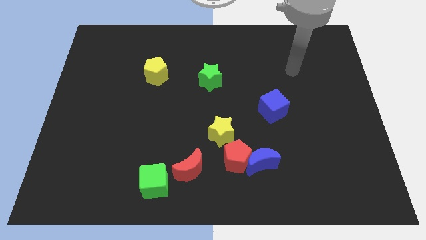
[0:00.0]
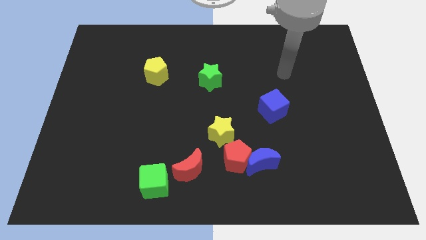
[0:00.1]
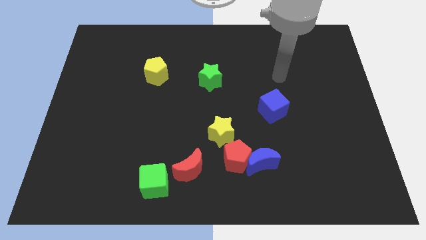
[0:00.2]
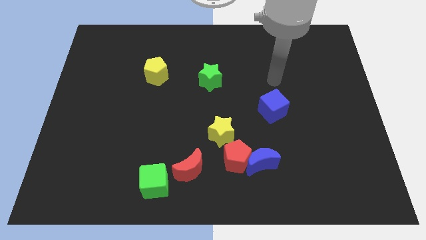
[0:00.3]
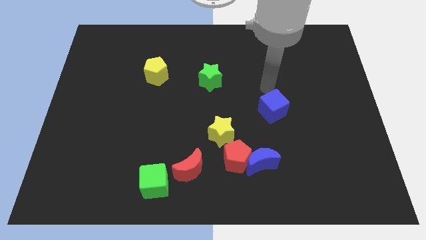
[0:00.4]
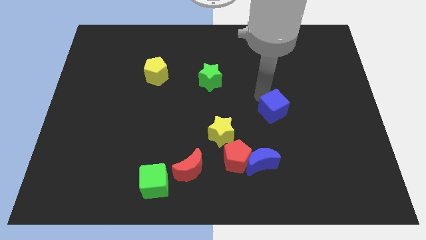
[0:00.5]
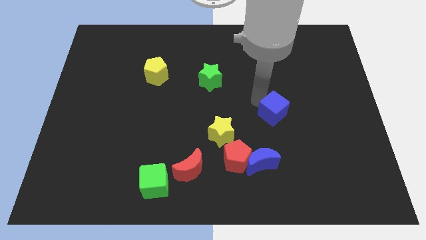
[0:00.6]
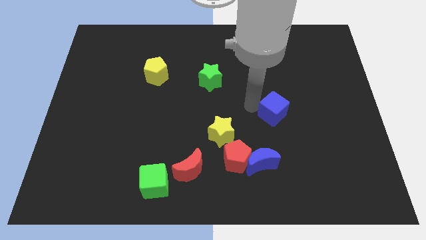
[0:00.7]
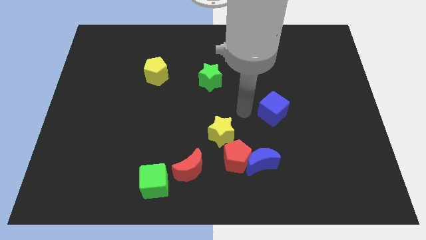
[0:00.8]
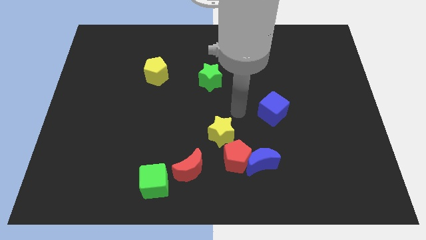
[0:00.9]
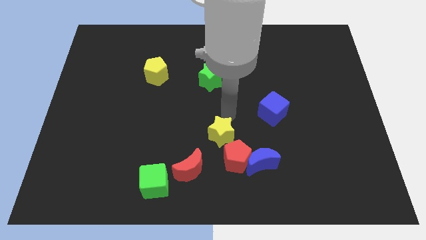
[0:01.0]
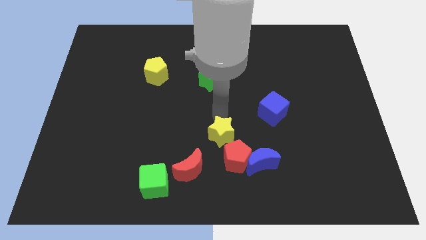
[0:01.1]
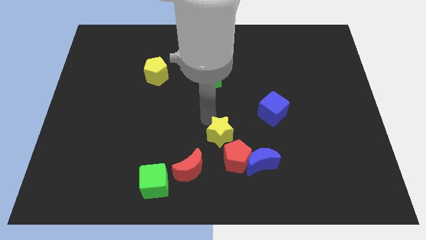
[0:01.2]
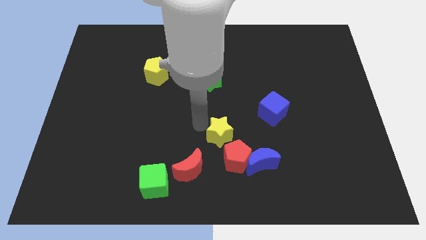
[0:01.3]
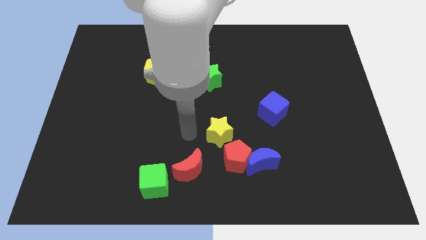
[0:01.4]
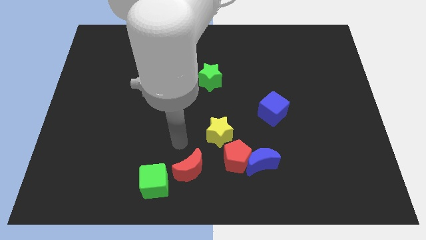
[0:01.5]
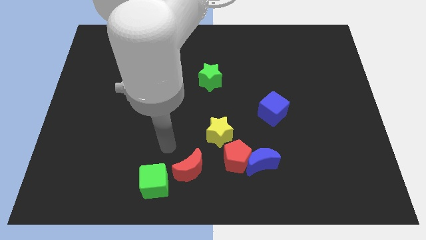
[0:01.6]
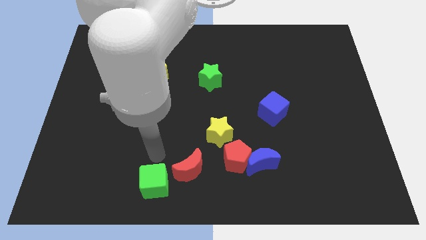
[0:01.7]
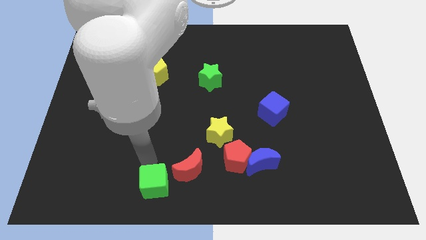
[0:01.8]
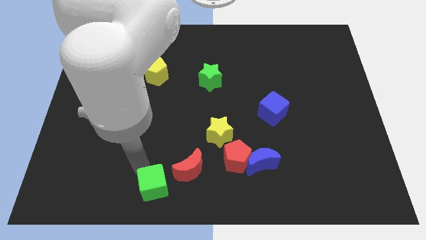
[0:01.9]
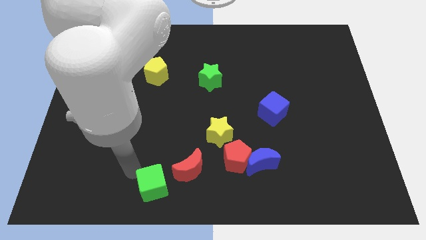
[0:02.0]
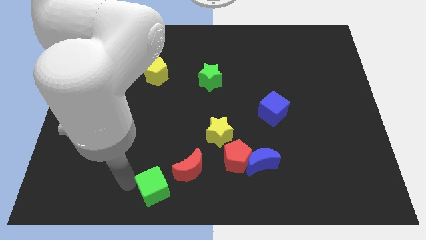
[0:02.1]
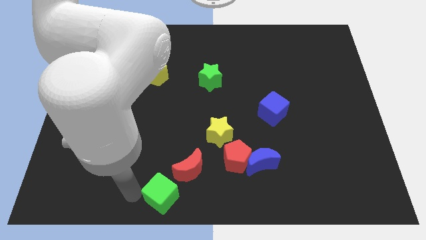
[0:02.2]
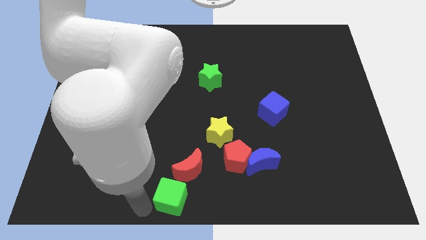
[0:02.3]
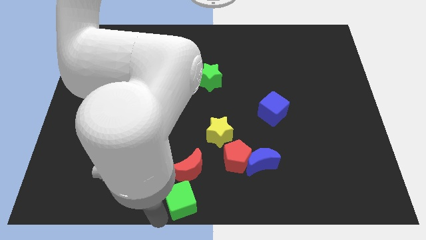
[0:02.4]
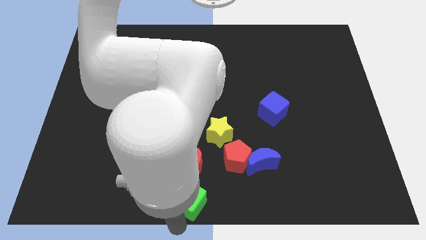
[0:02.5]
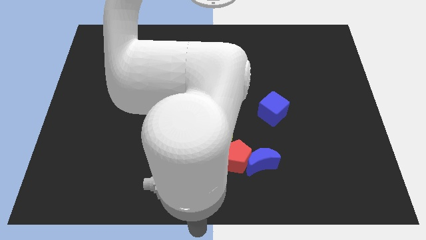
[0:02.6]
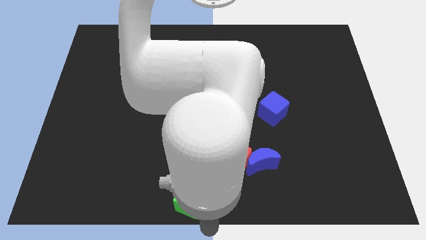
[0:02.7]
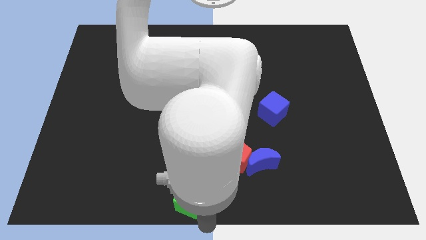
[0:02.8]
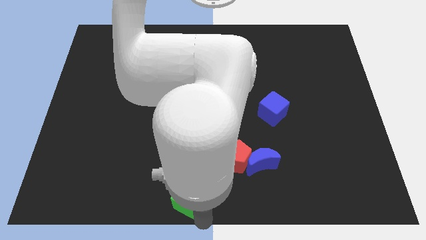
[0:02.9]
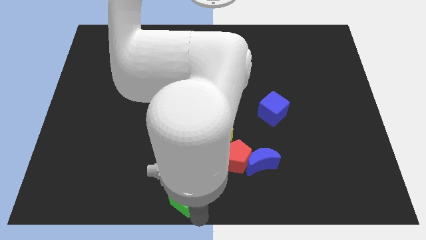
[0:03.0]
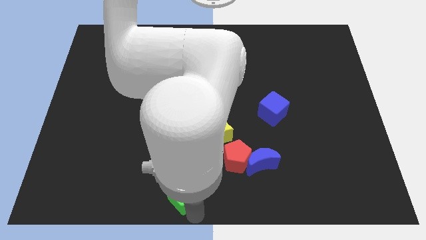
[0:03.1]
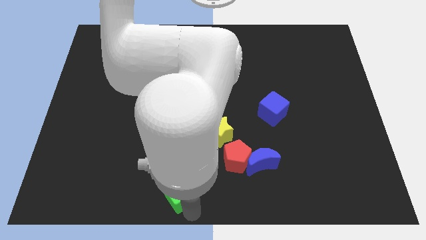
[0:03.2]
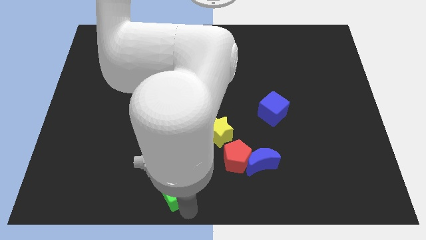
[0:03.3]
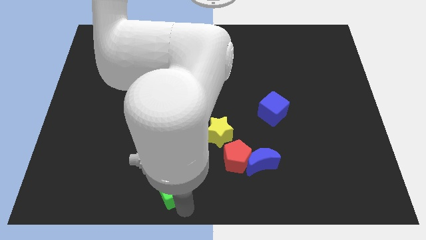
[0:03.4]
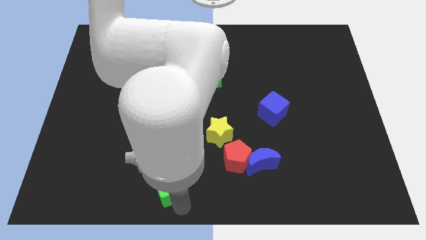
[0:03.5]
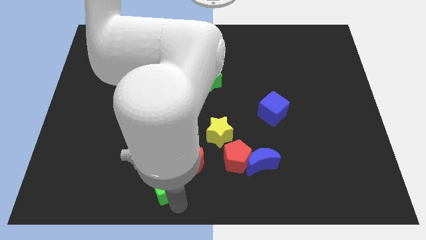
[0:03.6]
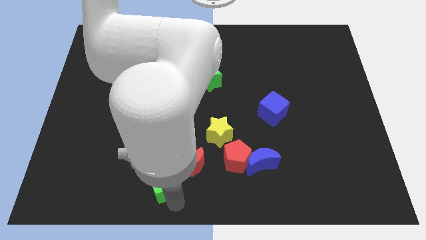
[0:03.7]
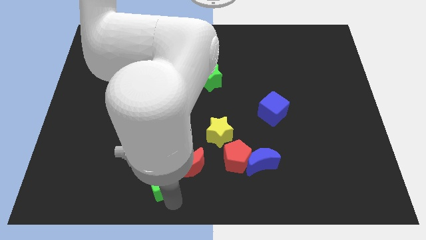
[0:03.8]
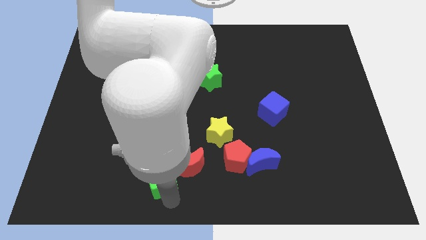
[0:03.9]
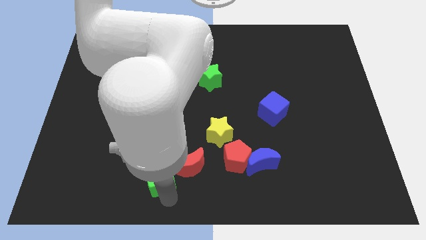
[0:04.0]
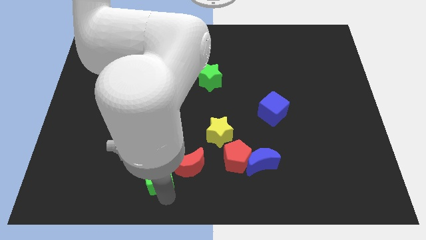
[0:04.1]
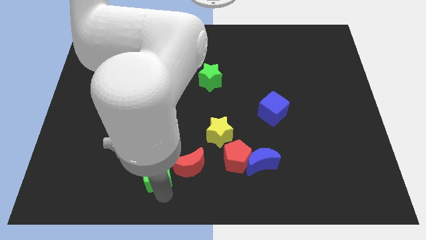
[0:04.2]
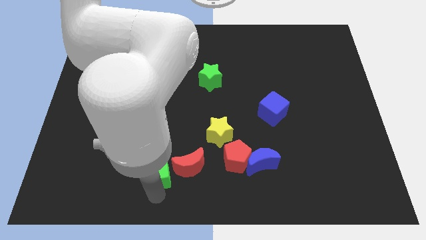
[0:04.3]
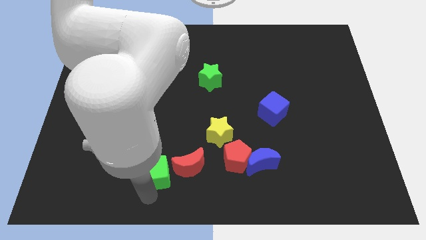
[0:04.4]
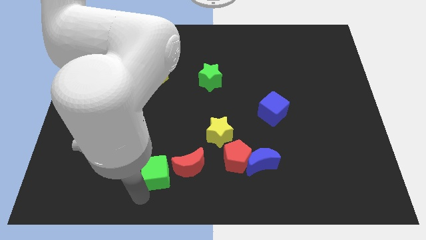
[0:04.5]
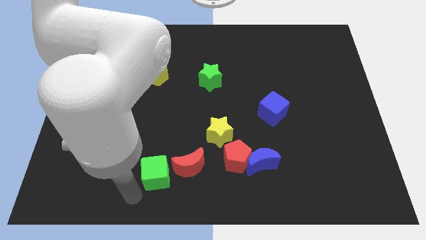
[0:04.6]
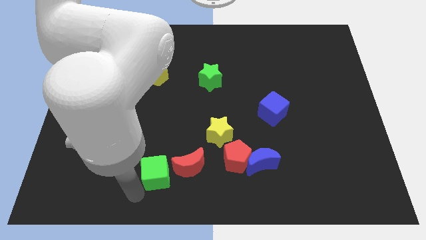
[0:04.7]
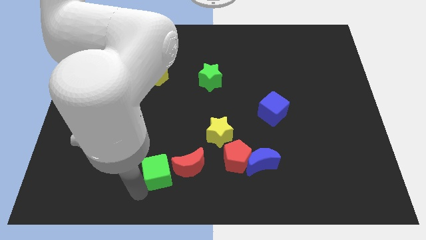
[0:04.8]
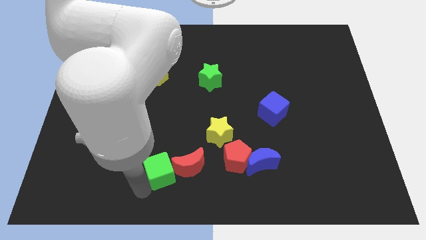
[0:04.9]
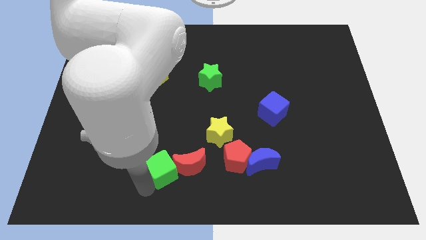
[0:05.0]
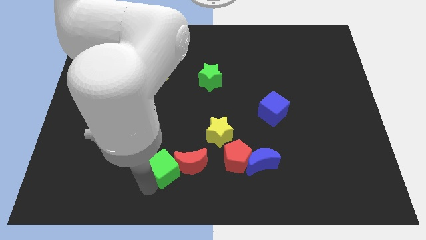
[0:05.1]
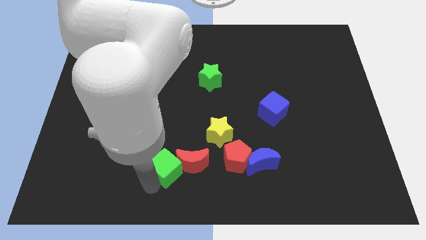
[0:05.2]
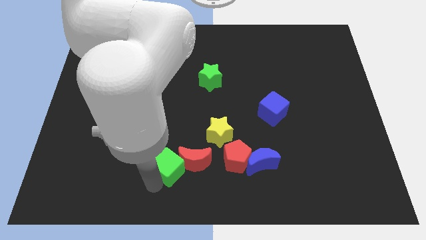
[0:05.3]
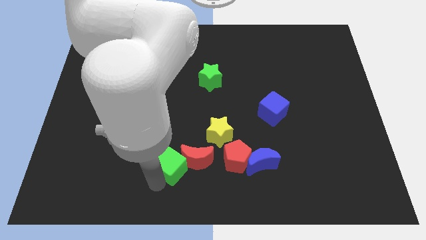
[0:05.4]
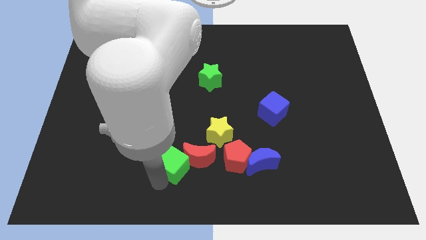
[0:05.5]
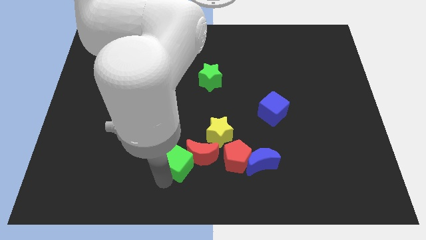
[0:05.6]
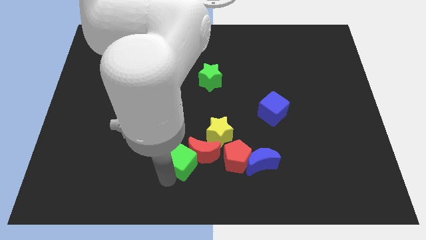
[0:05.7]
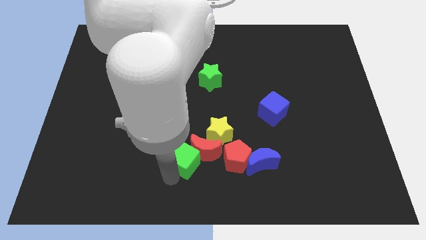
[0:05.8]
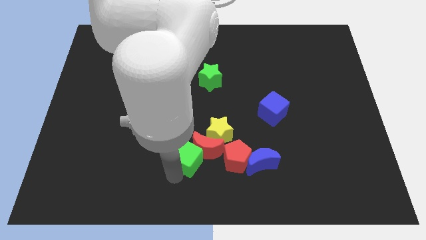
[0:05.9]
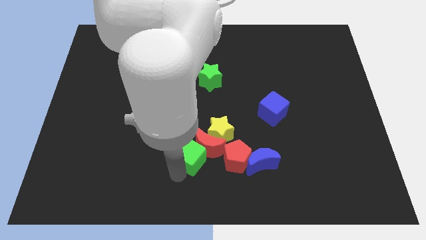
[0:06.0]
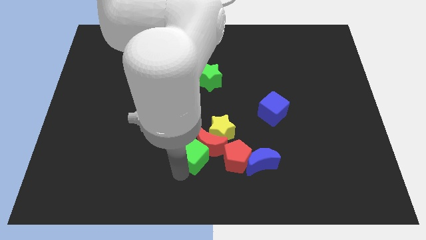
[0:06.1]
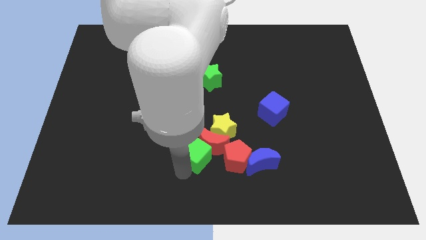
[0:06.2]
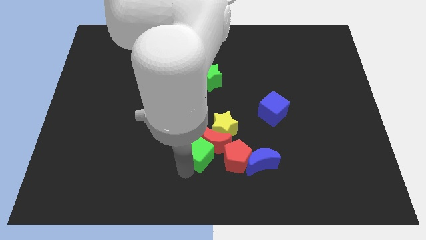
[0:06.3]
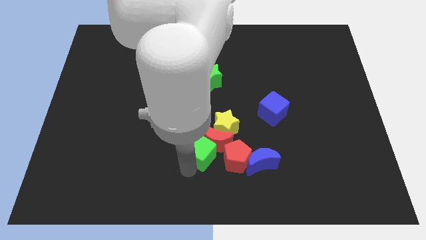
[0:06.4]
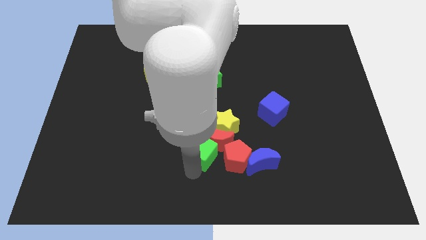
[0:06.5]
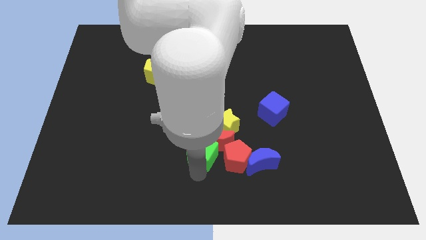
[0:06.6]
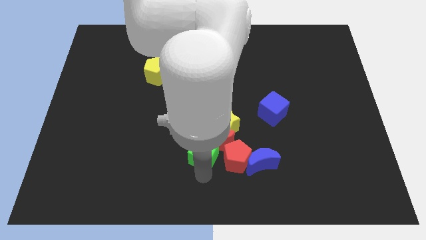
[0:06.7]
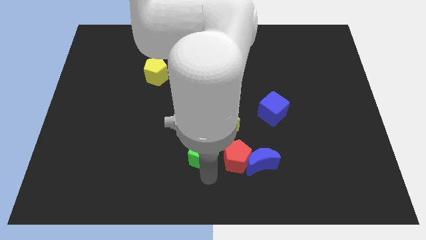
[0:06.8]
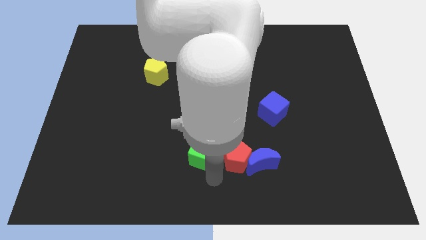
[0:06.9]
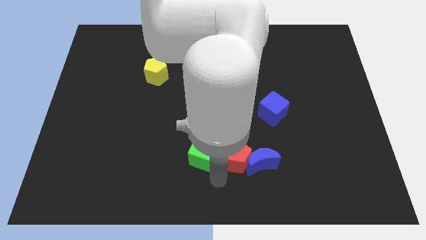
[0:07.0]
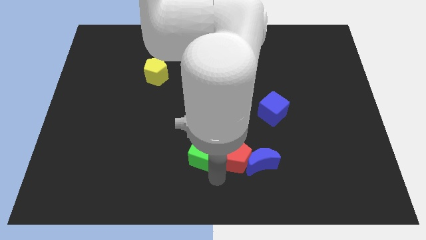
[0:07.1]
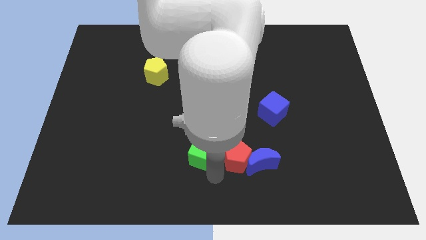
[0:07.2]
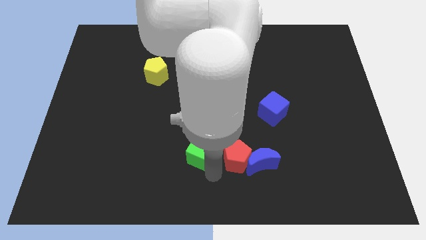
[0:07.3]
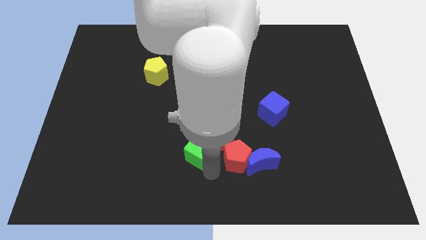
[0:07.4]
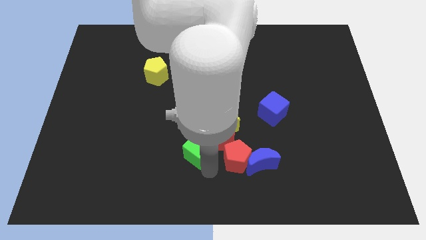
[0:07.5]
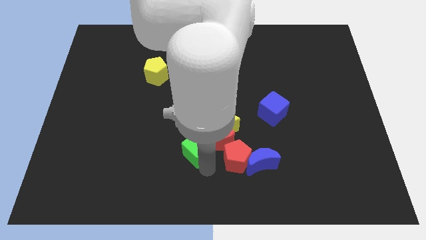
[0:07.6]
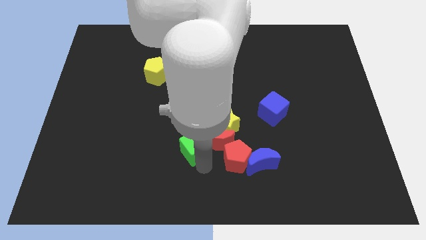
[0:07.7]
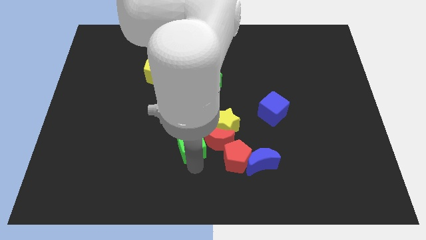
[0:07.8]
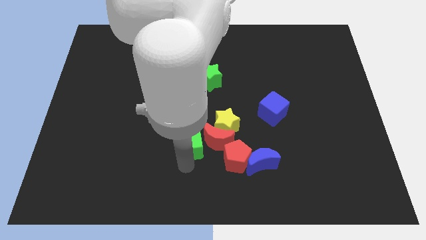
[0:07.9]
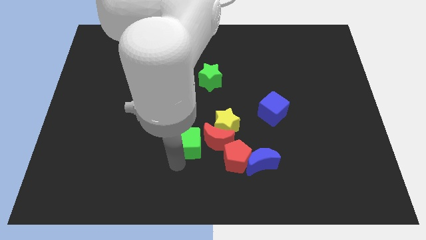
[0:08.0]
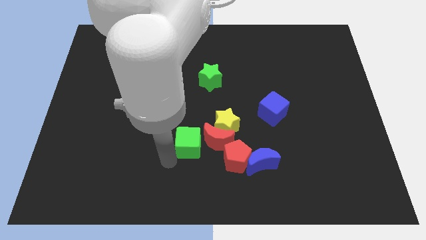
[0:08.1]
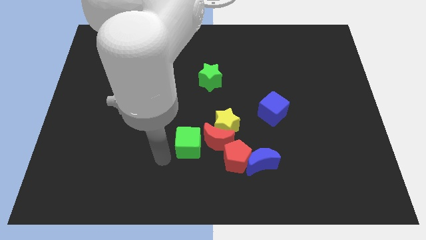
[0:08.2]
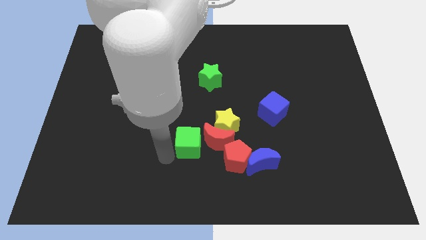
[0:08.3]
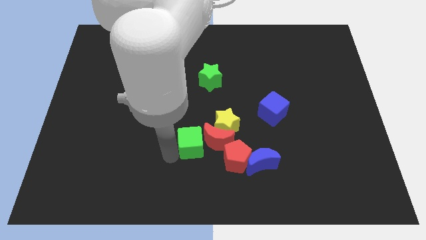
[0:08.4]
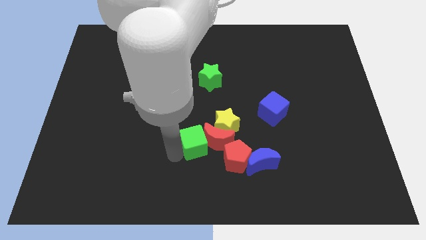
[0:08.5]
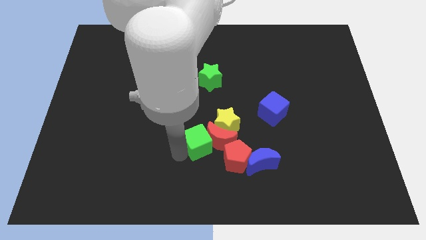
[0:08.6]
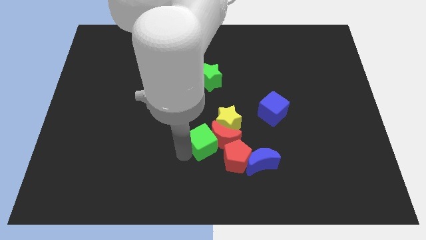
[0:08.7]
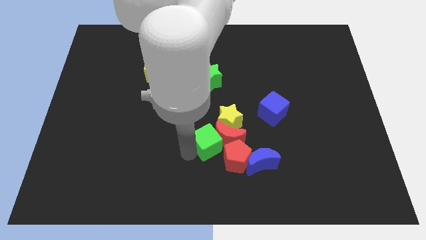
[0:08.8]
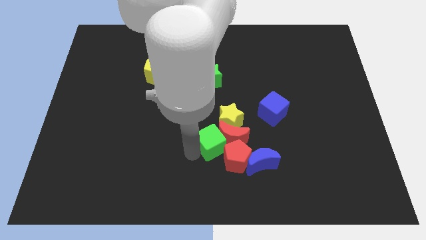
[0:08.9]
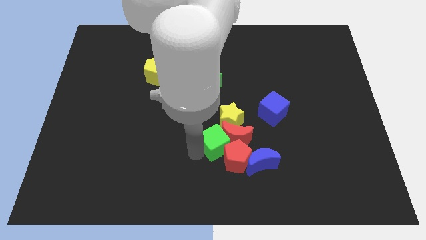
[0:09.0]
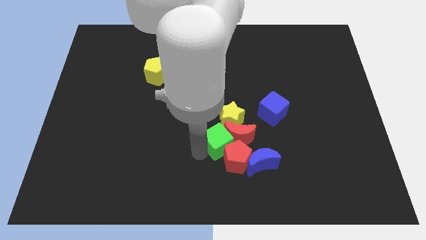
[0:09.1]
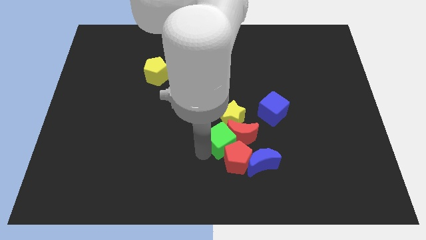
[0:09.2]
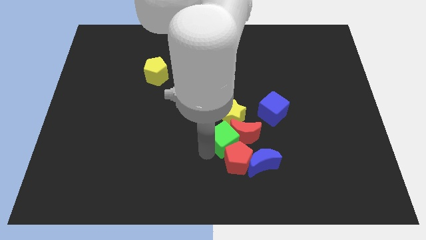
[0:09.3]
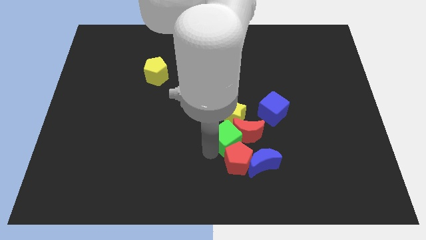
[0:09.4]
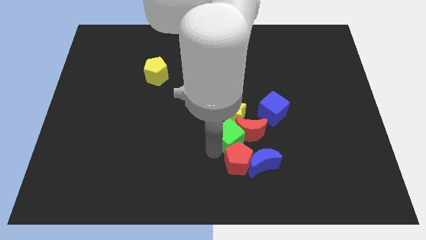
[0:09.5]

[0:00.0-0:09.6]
slide the green cube towards the yellow star
